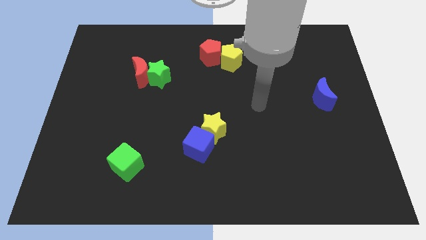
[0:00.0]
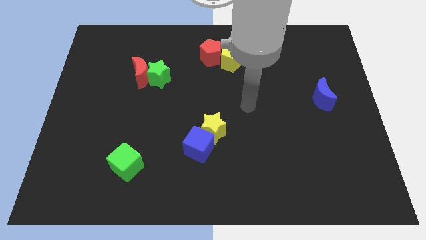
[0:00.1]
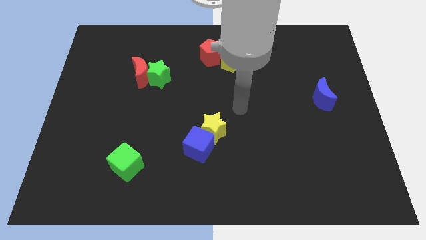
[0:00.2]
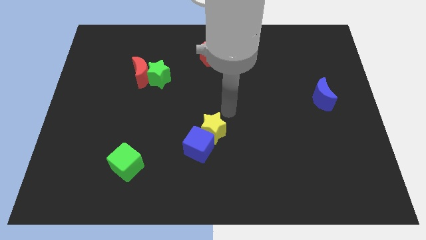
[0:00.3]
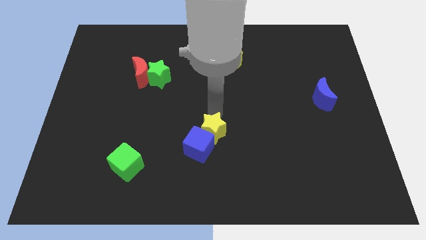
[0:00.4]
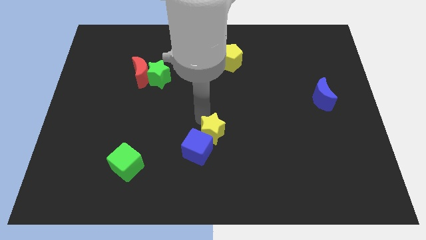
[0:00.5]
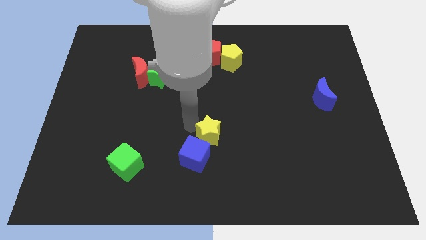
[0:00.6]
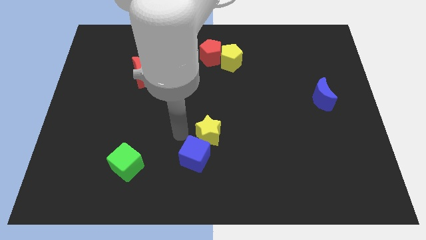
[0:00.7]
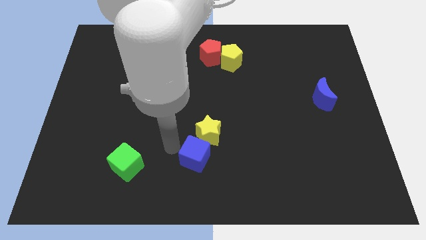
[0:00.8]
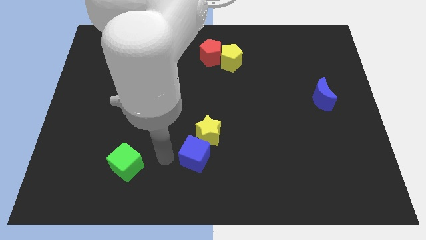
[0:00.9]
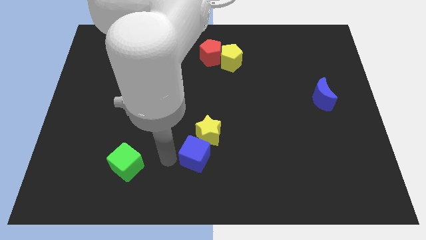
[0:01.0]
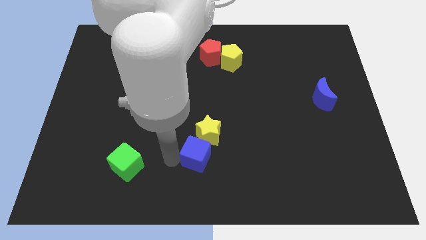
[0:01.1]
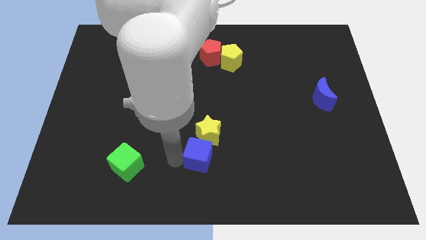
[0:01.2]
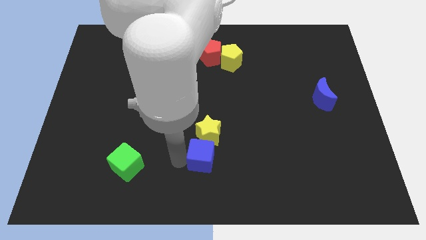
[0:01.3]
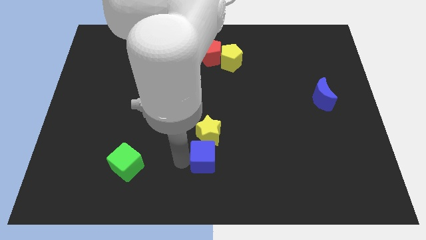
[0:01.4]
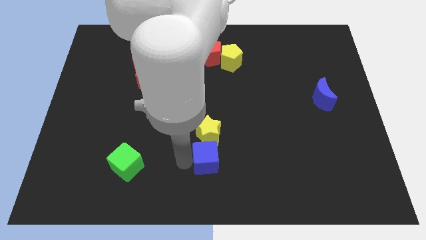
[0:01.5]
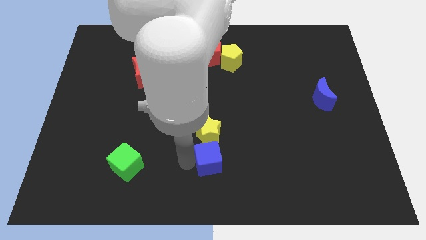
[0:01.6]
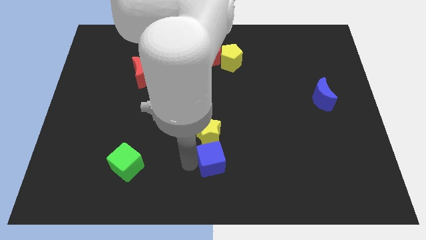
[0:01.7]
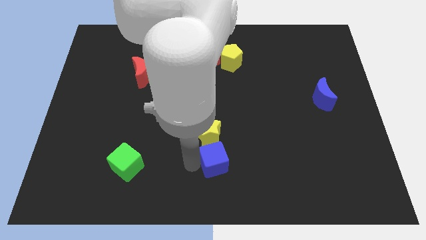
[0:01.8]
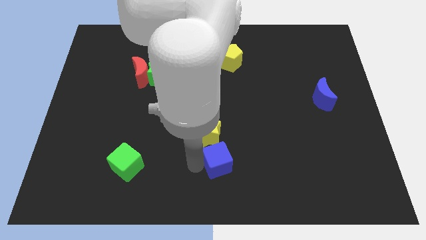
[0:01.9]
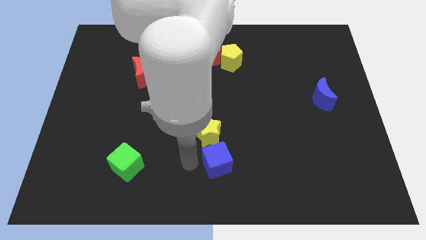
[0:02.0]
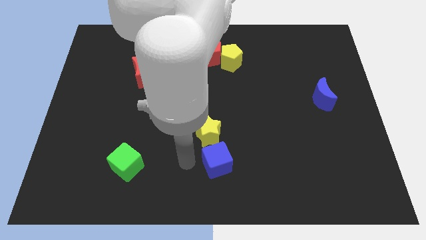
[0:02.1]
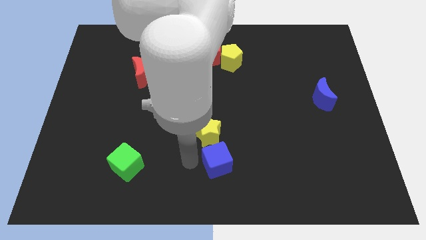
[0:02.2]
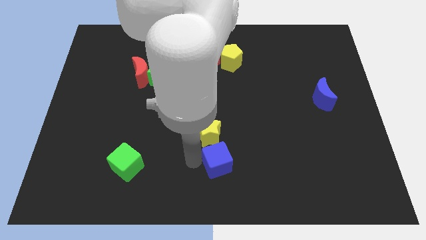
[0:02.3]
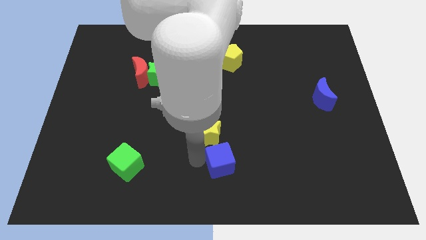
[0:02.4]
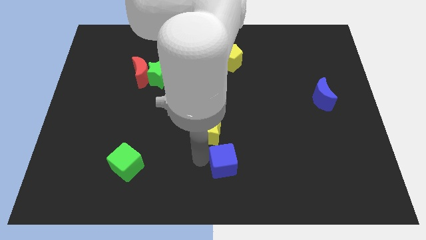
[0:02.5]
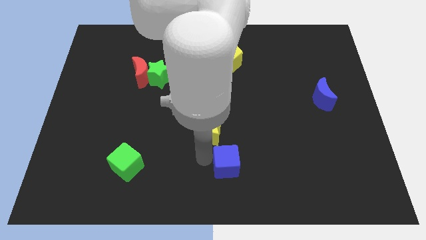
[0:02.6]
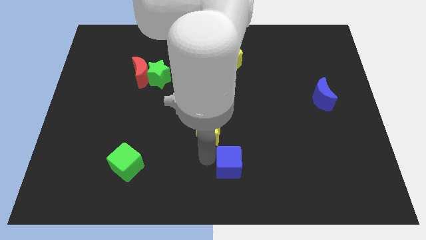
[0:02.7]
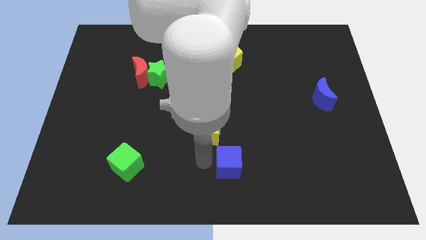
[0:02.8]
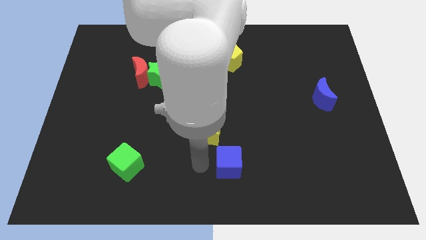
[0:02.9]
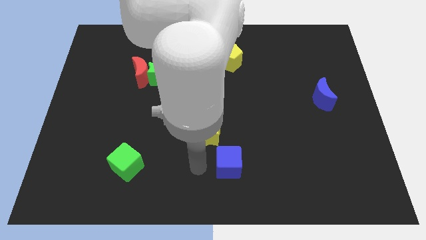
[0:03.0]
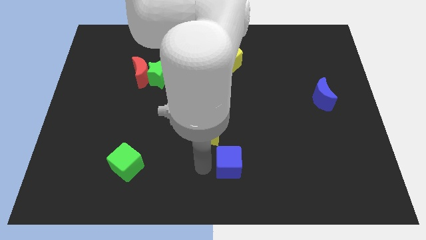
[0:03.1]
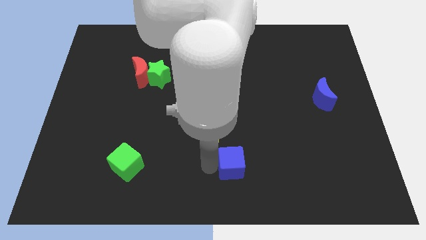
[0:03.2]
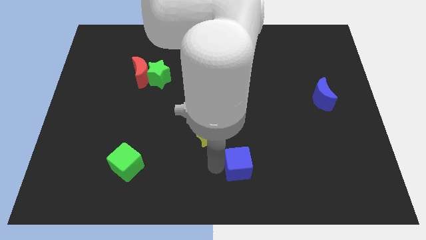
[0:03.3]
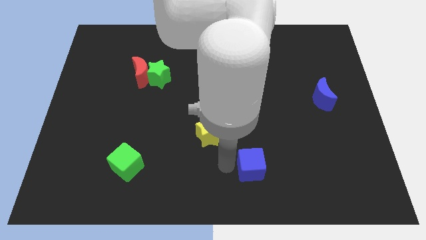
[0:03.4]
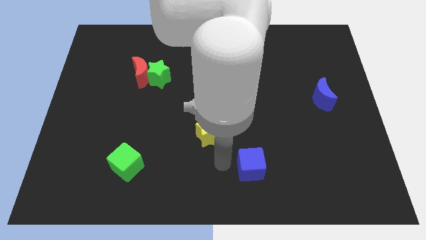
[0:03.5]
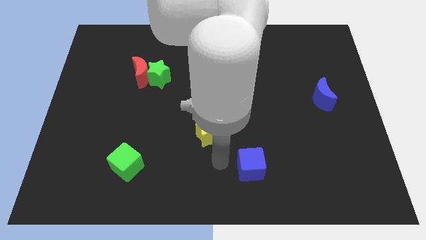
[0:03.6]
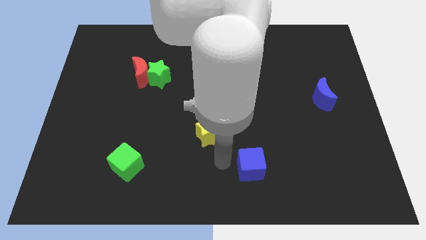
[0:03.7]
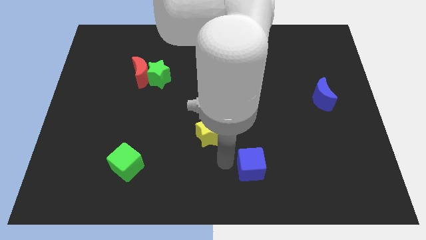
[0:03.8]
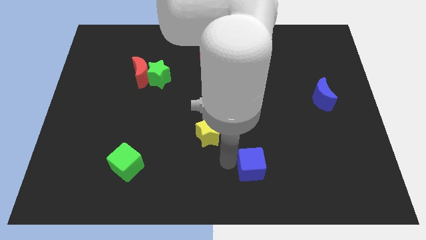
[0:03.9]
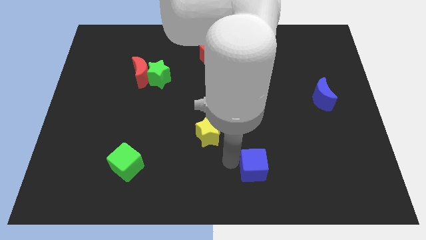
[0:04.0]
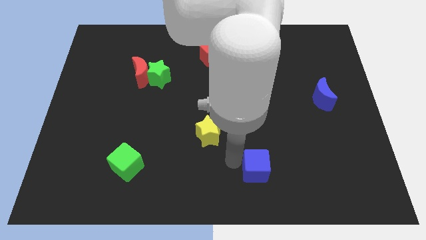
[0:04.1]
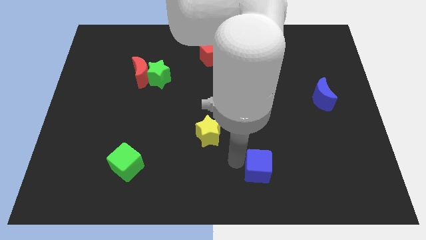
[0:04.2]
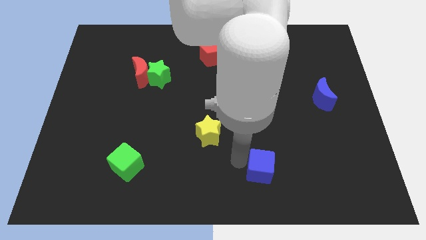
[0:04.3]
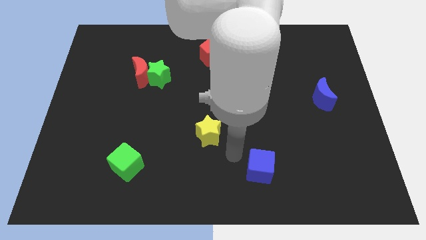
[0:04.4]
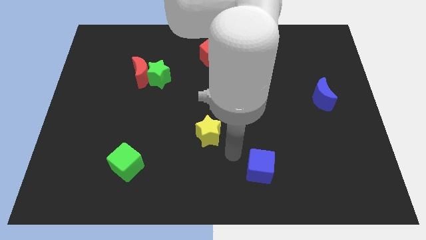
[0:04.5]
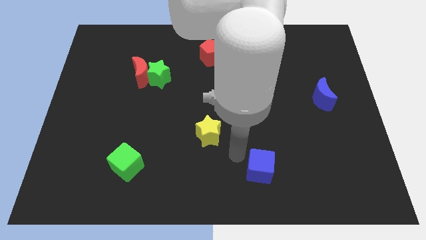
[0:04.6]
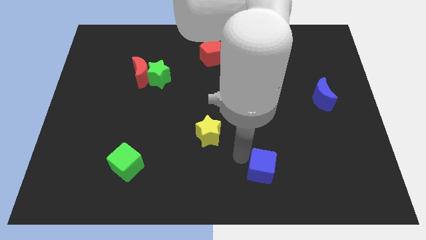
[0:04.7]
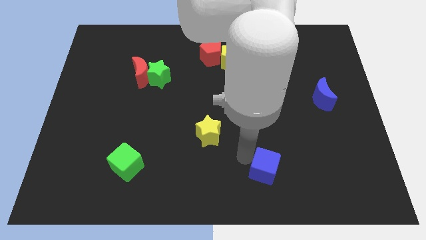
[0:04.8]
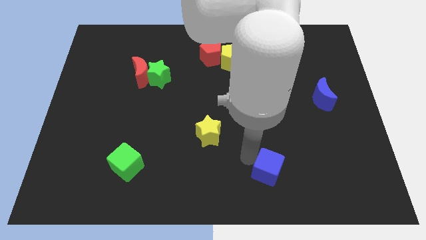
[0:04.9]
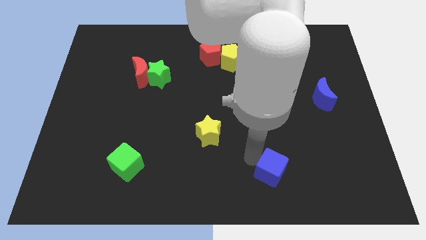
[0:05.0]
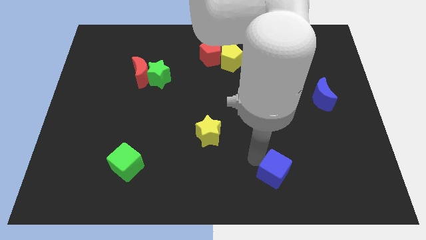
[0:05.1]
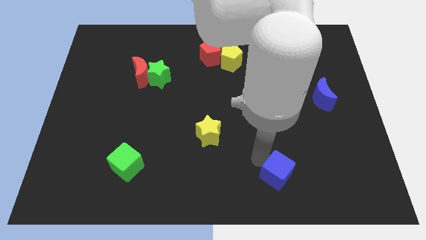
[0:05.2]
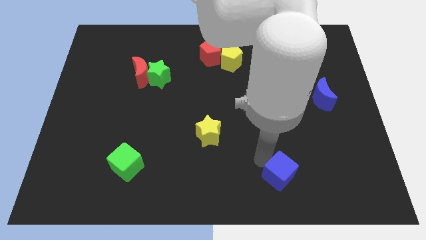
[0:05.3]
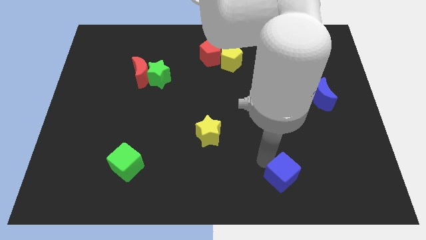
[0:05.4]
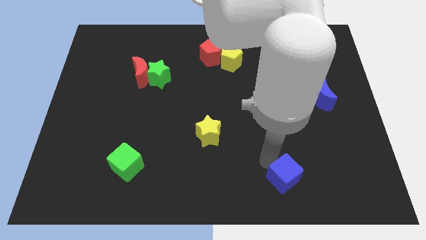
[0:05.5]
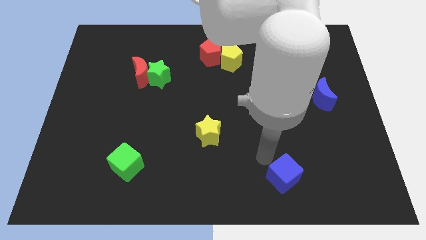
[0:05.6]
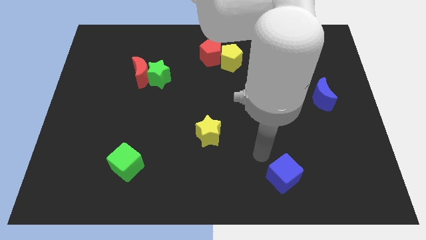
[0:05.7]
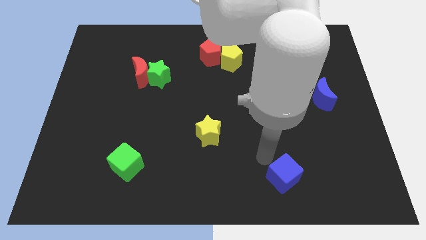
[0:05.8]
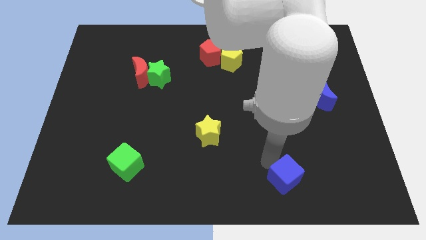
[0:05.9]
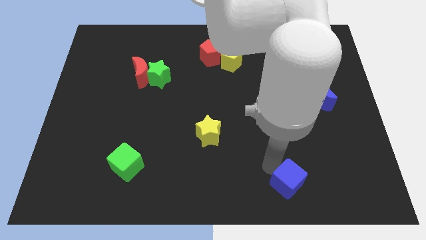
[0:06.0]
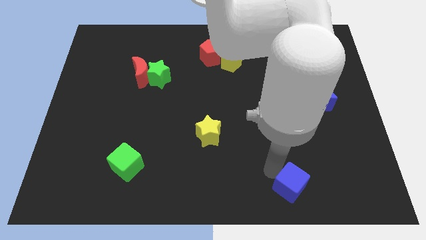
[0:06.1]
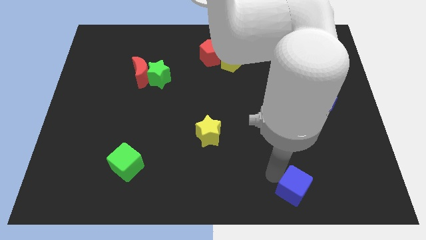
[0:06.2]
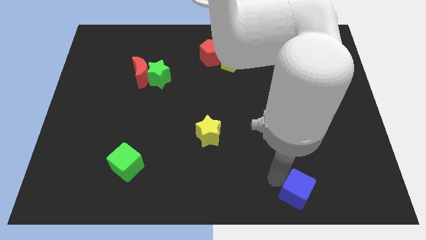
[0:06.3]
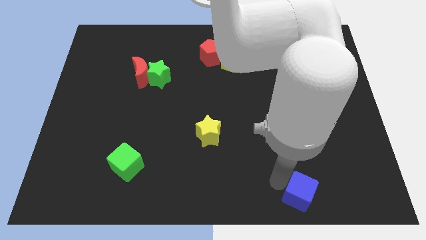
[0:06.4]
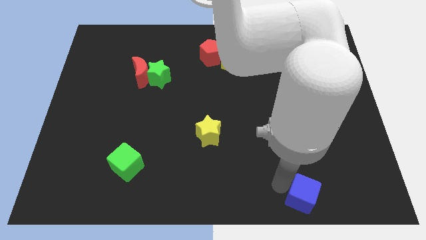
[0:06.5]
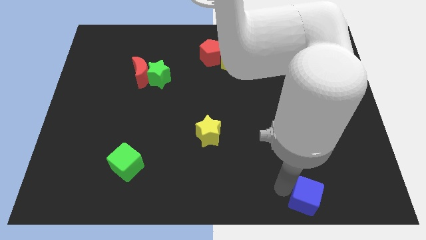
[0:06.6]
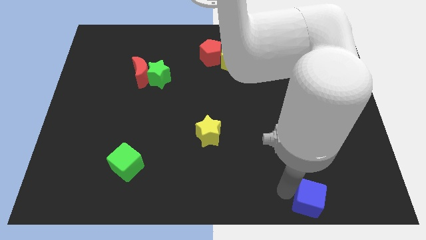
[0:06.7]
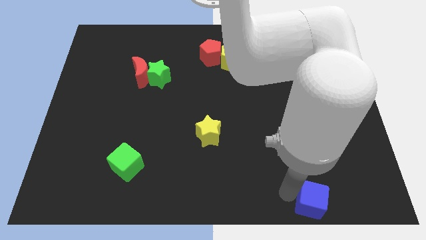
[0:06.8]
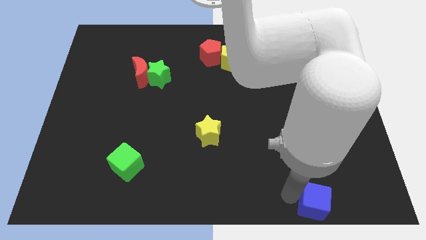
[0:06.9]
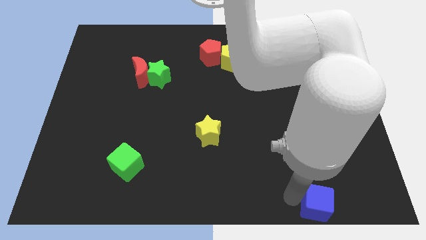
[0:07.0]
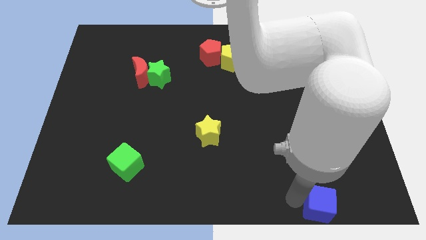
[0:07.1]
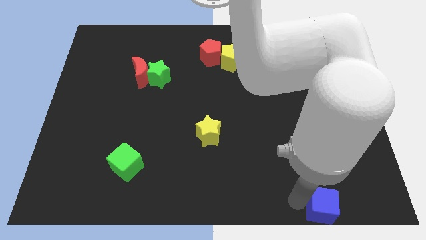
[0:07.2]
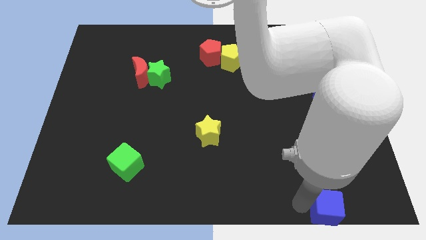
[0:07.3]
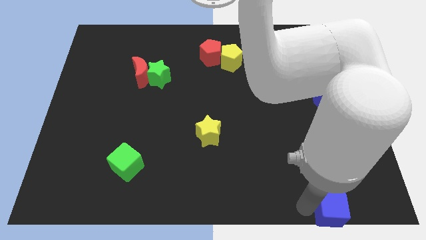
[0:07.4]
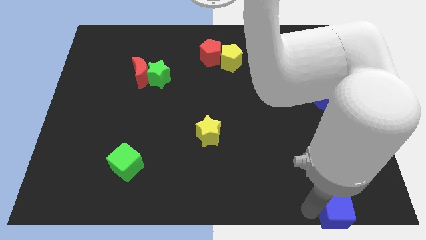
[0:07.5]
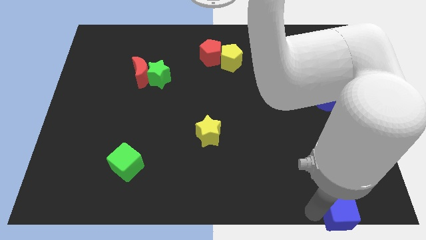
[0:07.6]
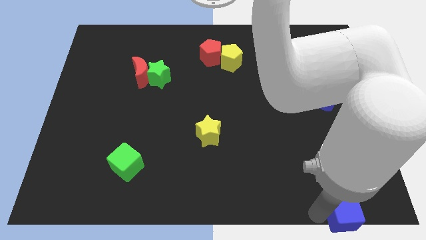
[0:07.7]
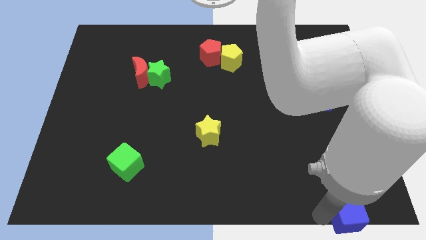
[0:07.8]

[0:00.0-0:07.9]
put the blue cube to the bottom right of the board
